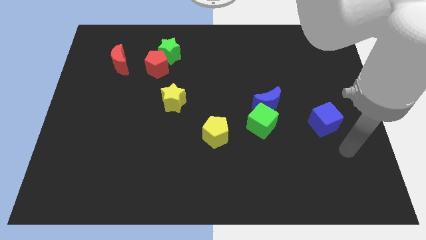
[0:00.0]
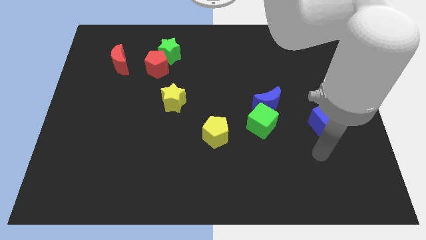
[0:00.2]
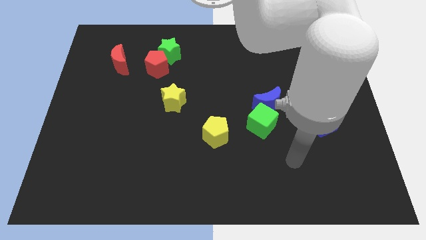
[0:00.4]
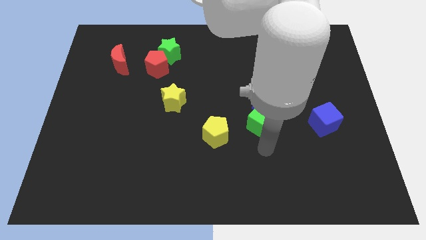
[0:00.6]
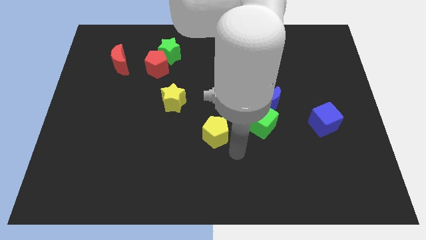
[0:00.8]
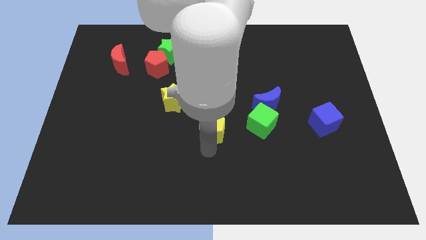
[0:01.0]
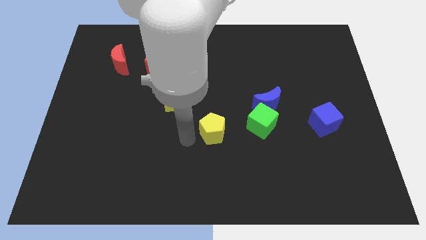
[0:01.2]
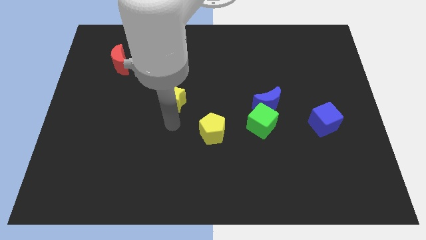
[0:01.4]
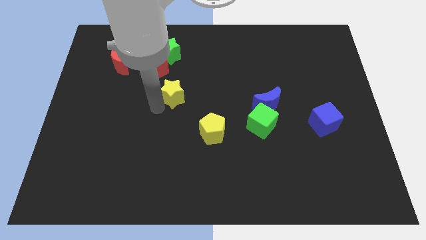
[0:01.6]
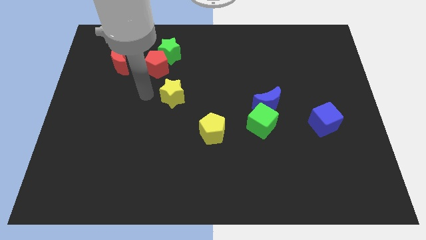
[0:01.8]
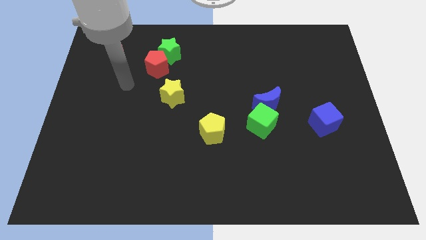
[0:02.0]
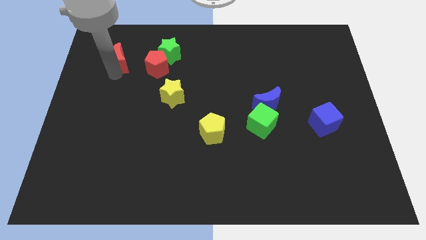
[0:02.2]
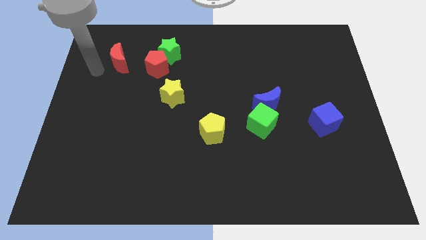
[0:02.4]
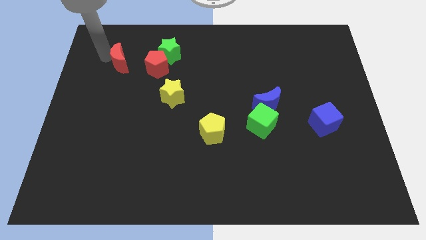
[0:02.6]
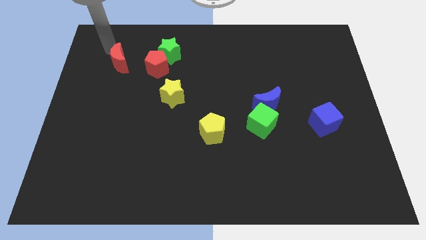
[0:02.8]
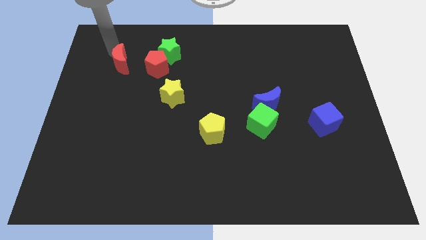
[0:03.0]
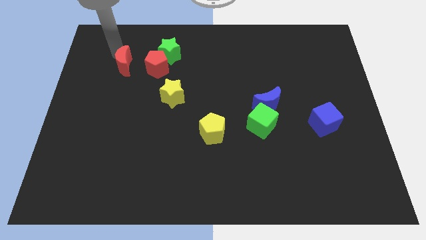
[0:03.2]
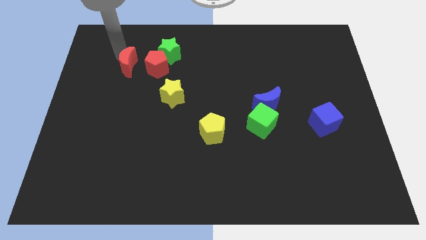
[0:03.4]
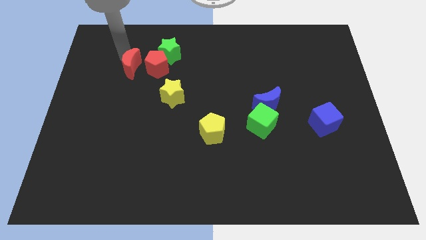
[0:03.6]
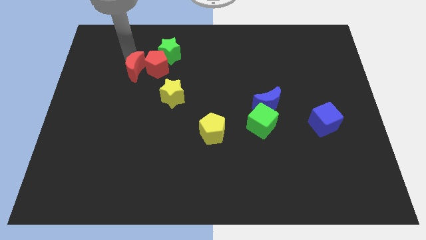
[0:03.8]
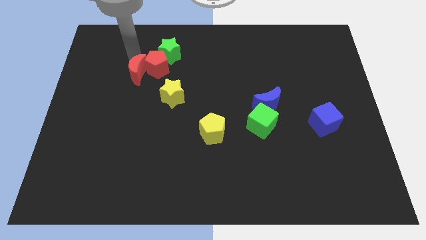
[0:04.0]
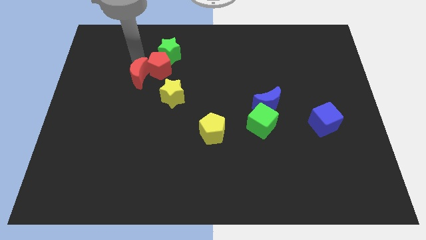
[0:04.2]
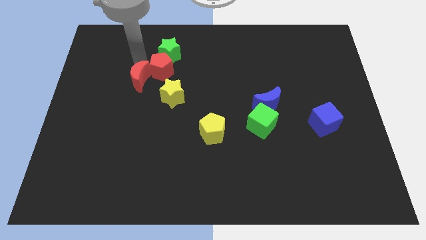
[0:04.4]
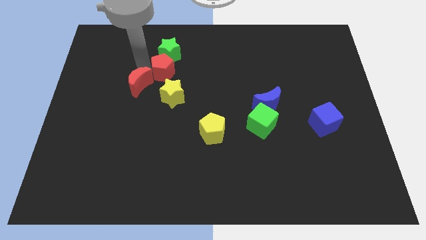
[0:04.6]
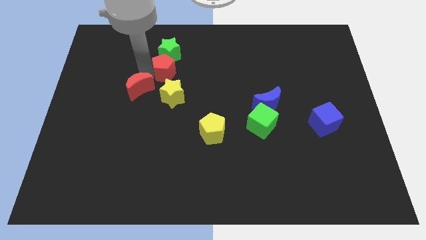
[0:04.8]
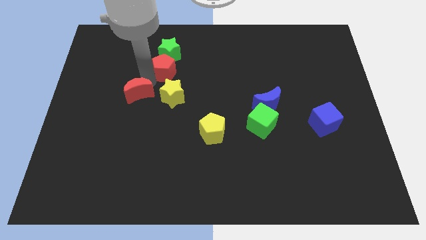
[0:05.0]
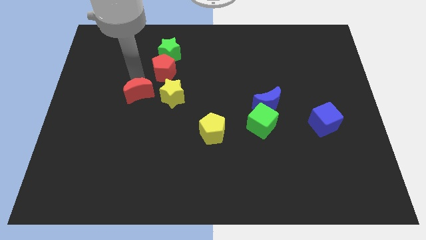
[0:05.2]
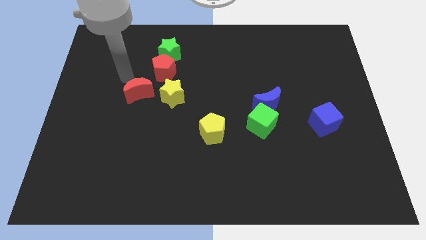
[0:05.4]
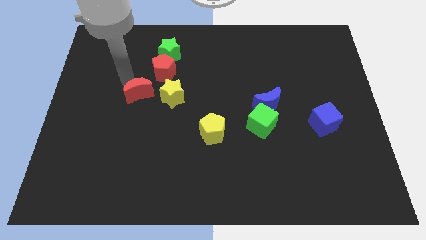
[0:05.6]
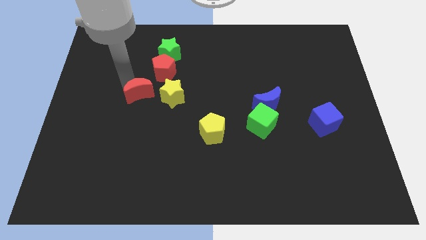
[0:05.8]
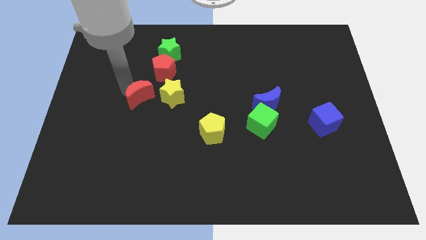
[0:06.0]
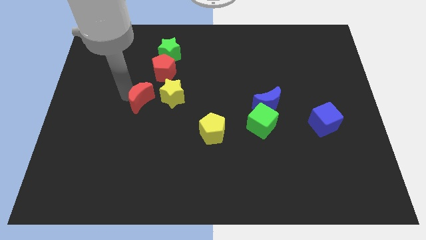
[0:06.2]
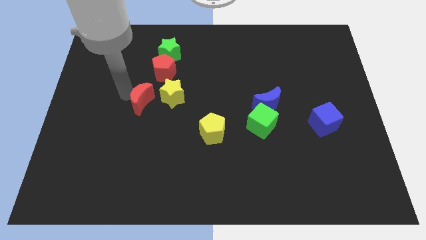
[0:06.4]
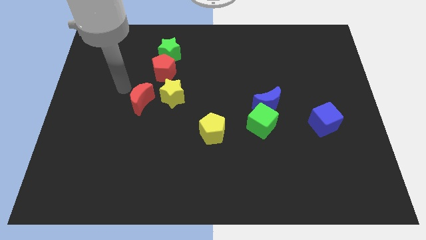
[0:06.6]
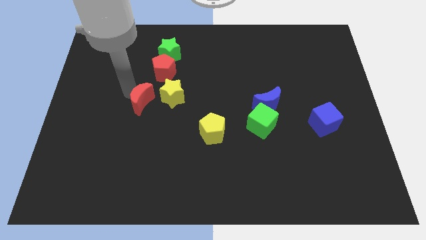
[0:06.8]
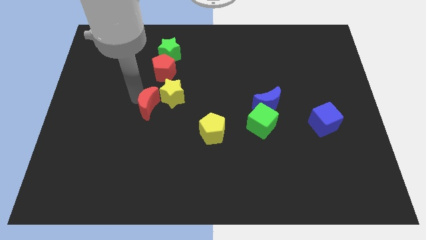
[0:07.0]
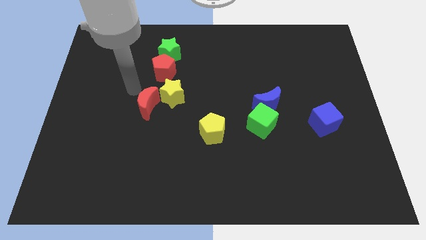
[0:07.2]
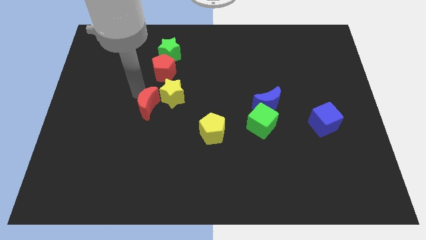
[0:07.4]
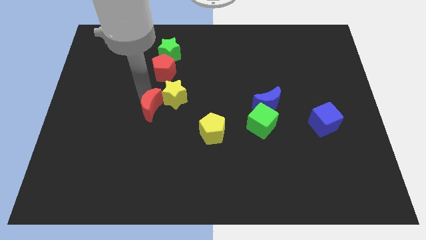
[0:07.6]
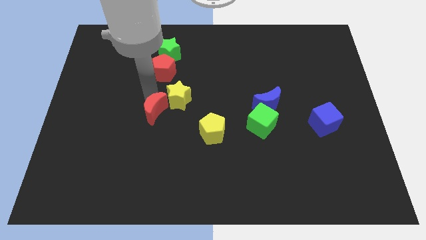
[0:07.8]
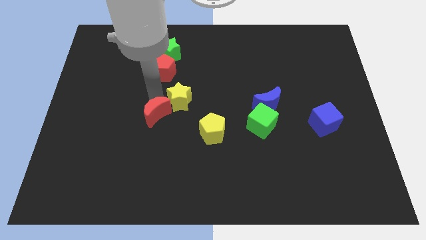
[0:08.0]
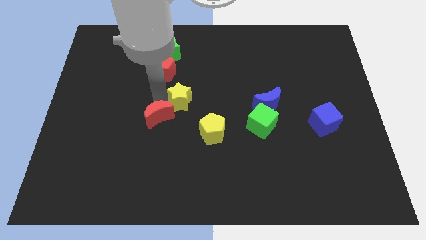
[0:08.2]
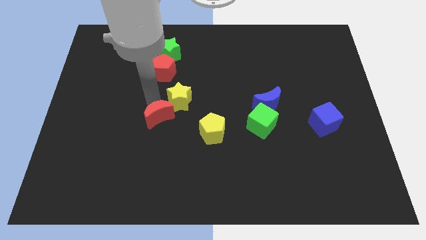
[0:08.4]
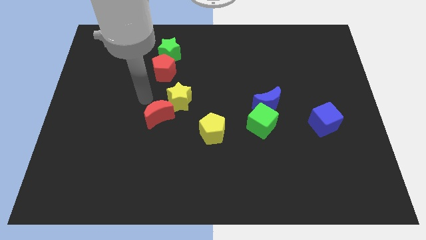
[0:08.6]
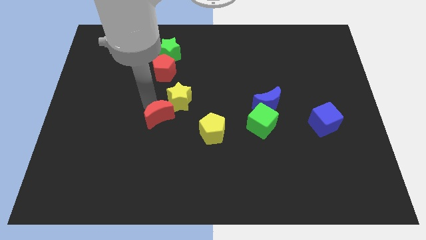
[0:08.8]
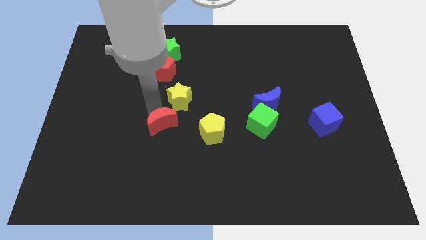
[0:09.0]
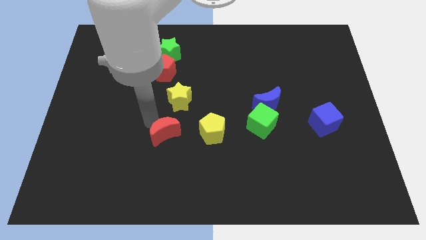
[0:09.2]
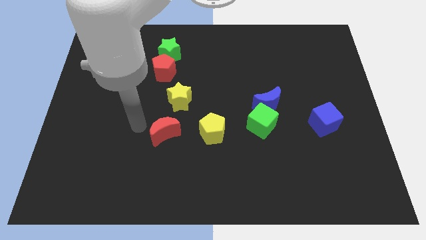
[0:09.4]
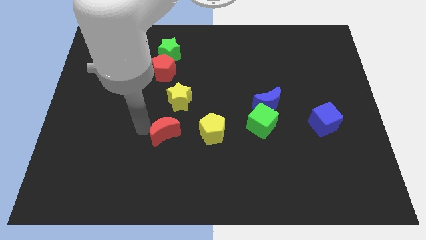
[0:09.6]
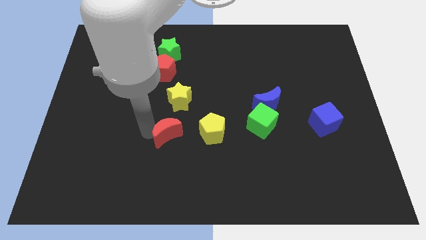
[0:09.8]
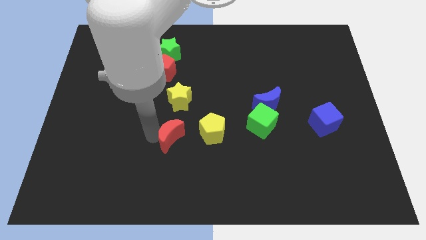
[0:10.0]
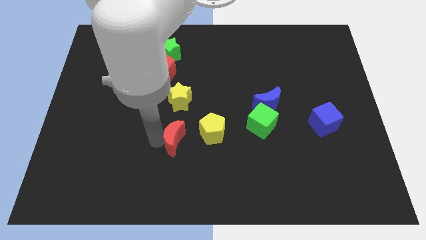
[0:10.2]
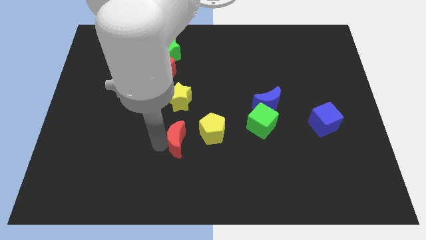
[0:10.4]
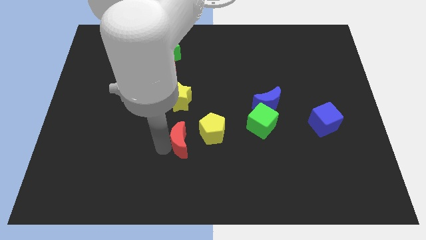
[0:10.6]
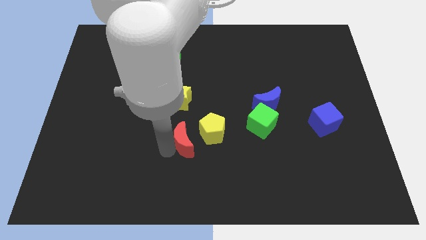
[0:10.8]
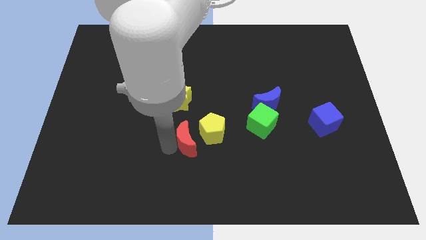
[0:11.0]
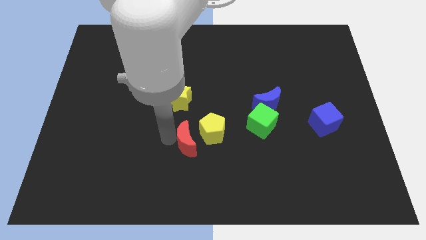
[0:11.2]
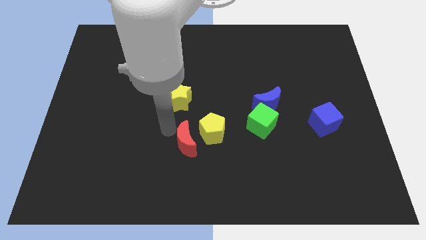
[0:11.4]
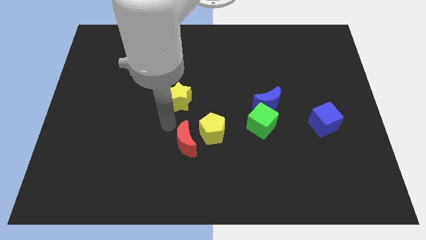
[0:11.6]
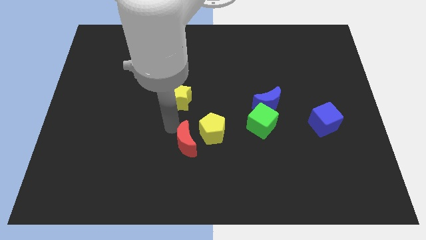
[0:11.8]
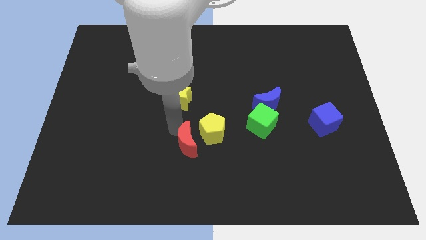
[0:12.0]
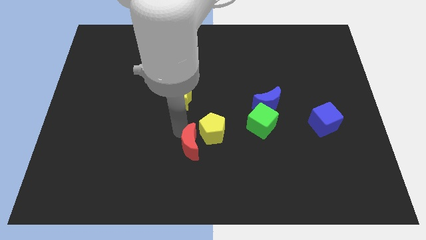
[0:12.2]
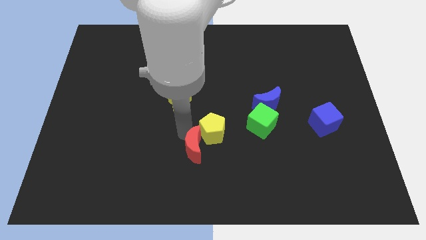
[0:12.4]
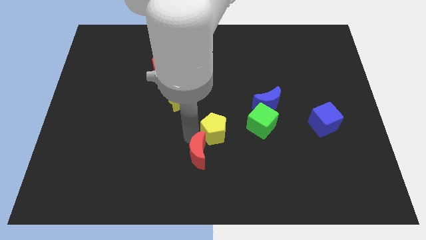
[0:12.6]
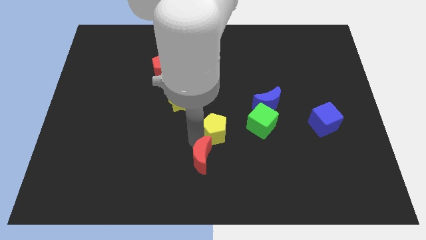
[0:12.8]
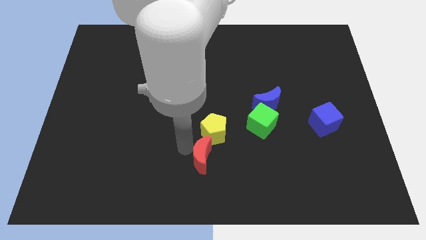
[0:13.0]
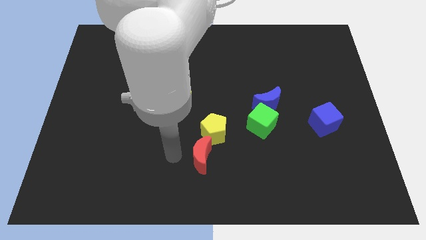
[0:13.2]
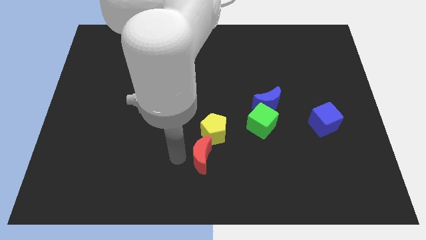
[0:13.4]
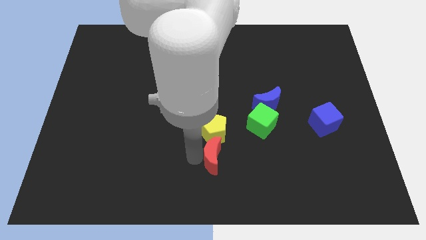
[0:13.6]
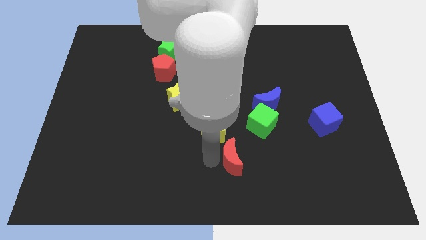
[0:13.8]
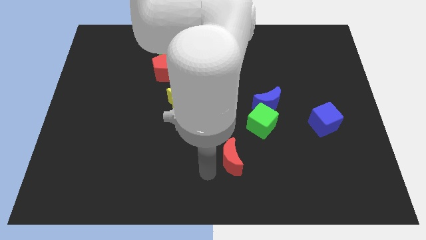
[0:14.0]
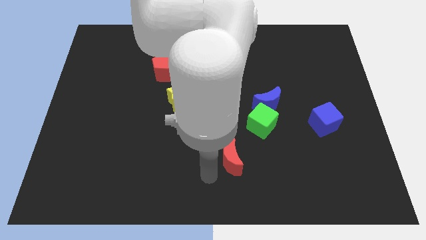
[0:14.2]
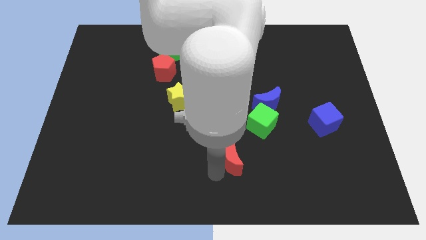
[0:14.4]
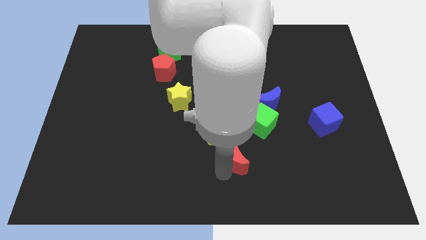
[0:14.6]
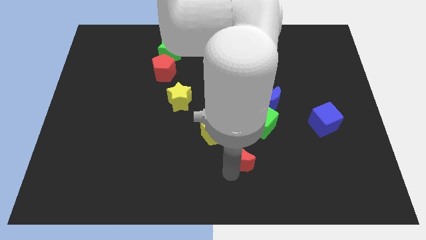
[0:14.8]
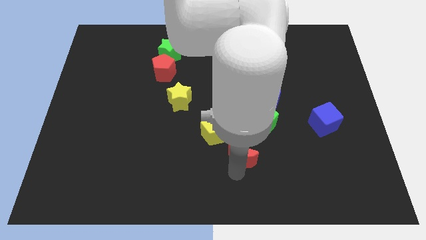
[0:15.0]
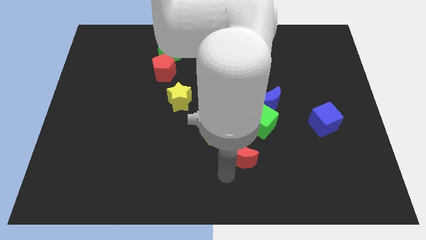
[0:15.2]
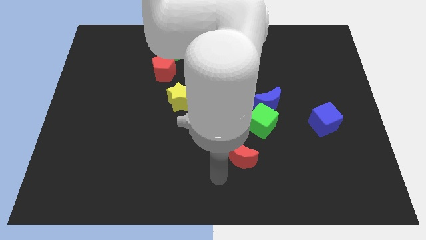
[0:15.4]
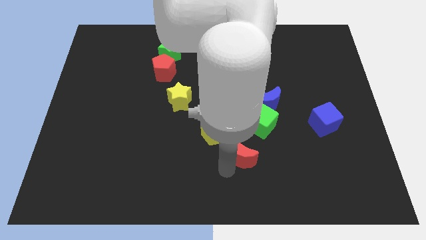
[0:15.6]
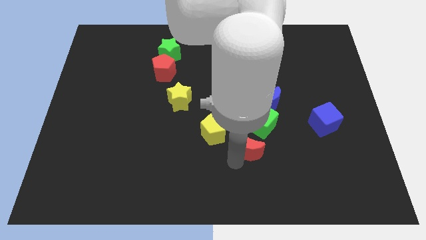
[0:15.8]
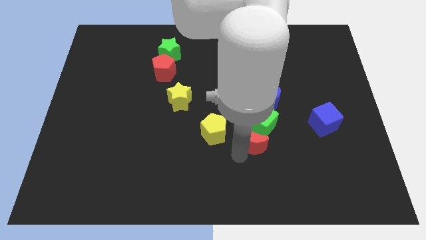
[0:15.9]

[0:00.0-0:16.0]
push the red moon to the bottom side of the blue moon

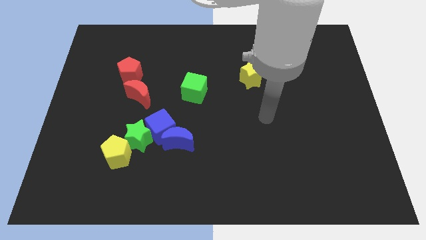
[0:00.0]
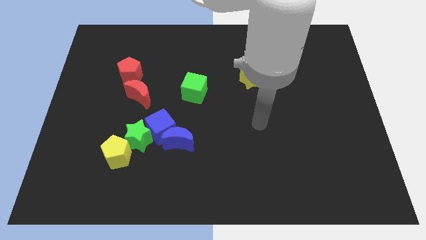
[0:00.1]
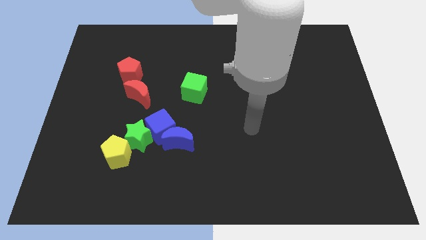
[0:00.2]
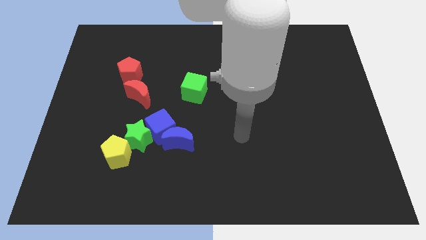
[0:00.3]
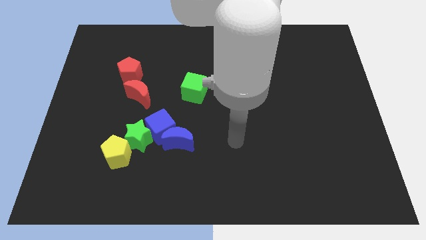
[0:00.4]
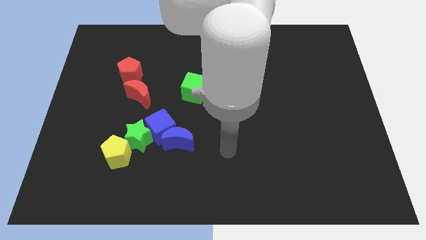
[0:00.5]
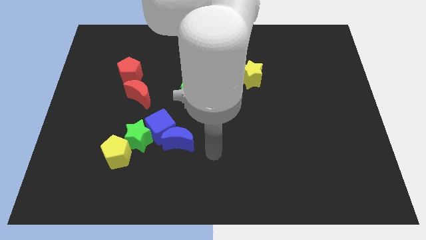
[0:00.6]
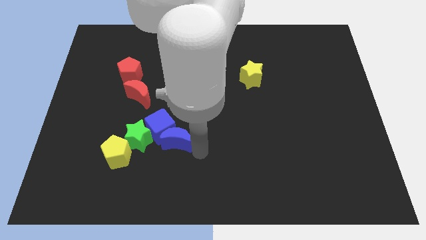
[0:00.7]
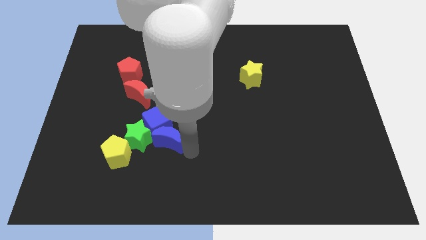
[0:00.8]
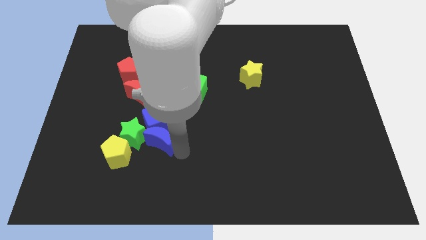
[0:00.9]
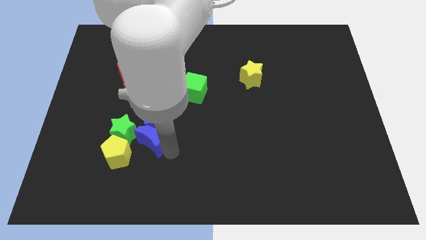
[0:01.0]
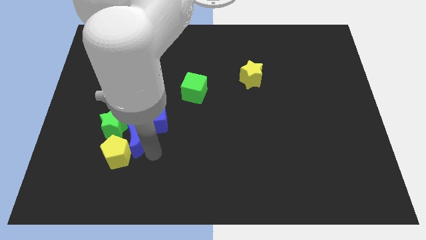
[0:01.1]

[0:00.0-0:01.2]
put the green star to the bottom left of the red moon
